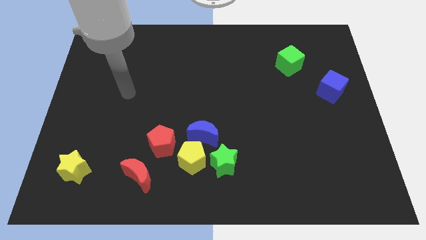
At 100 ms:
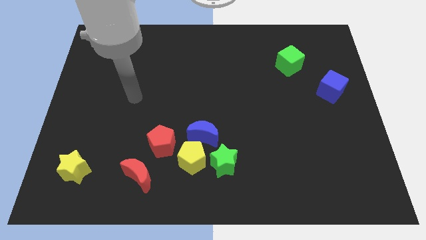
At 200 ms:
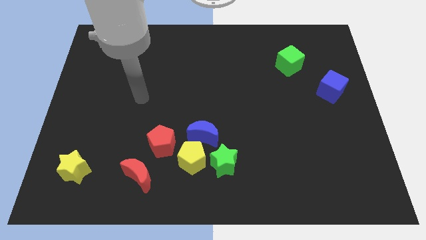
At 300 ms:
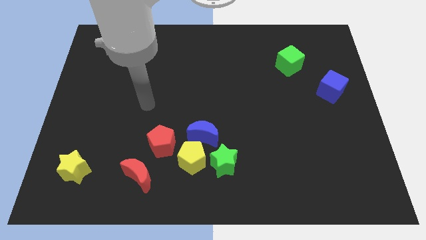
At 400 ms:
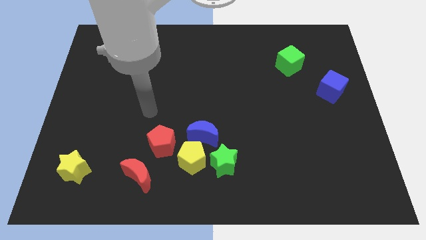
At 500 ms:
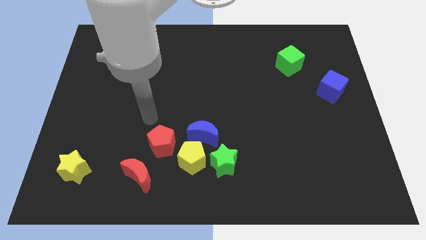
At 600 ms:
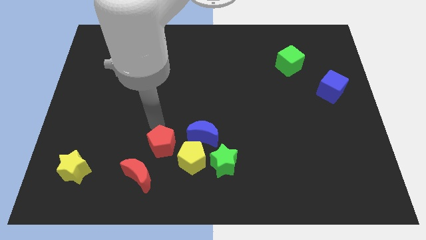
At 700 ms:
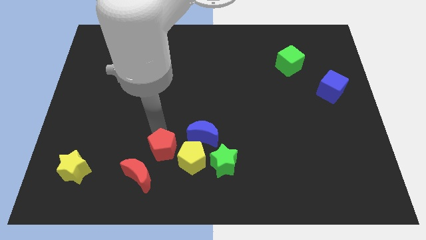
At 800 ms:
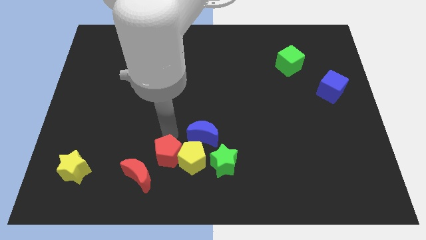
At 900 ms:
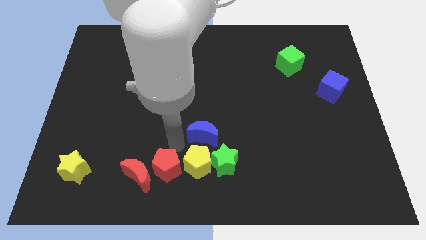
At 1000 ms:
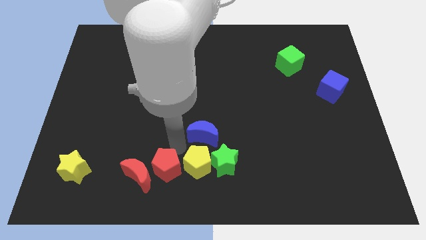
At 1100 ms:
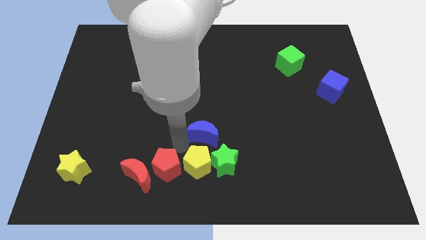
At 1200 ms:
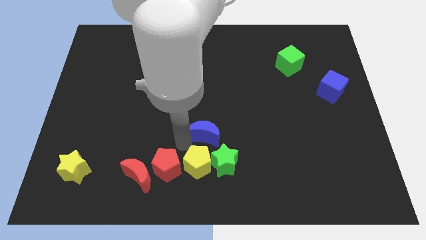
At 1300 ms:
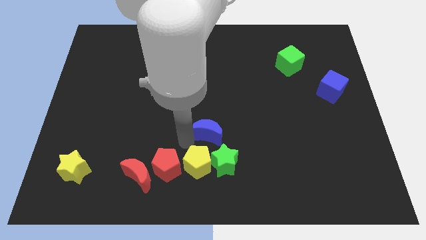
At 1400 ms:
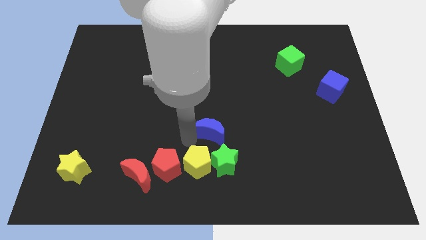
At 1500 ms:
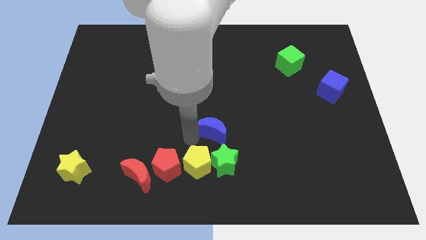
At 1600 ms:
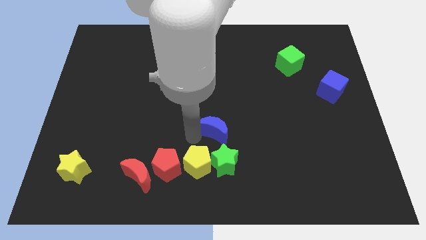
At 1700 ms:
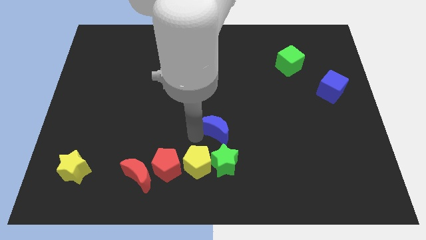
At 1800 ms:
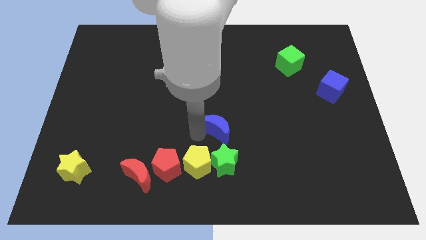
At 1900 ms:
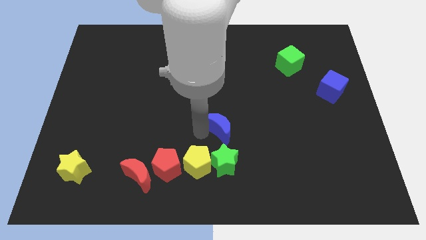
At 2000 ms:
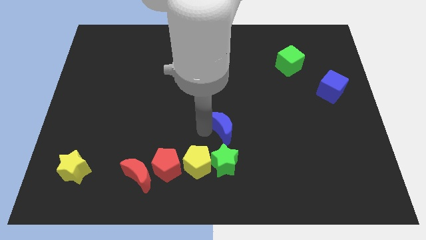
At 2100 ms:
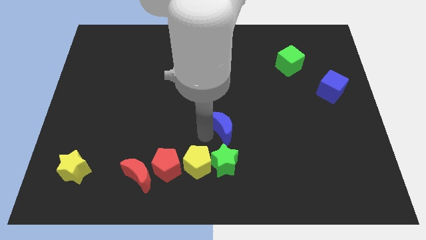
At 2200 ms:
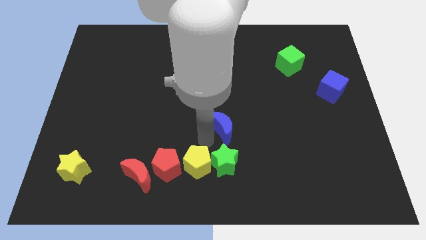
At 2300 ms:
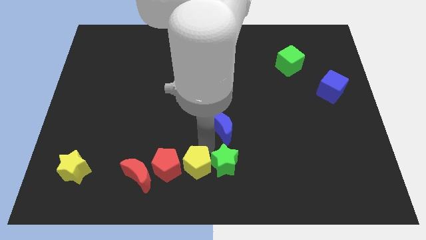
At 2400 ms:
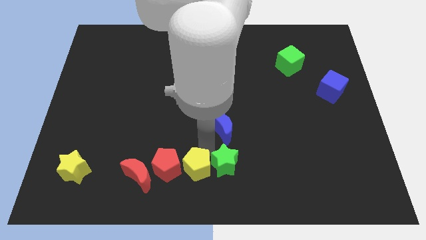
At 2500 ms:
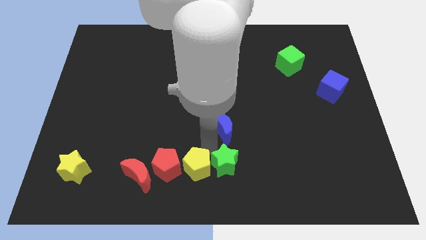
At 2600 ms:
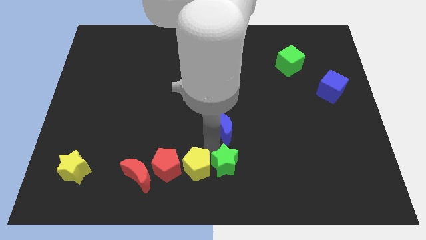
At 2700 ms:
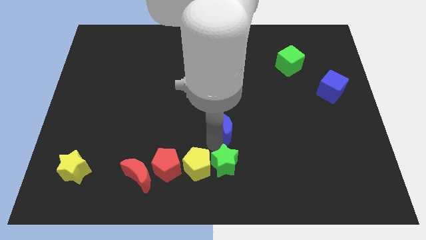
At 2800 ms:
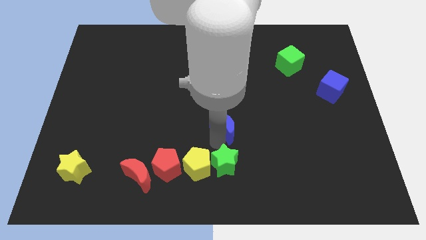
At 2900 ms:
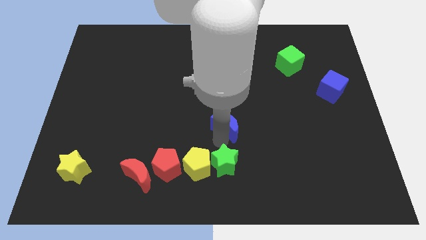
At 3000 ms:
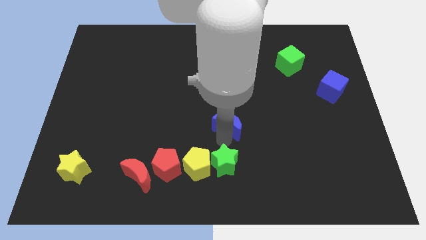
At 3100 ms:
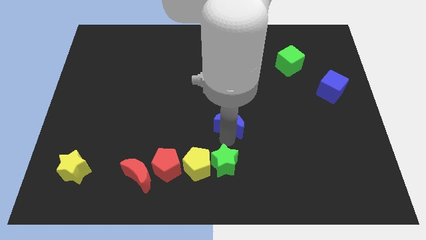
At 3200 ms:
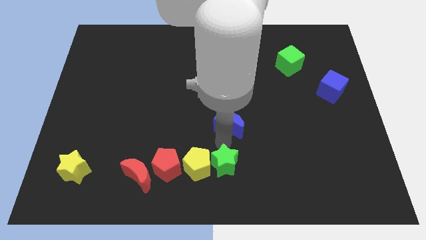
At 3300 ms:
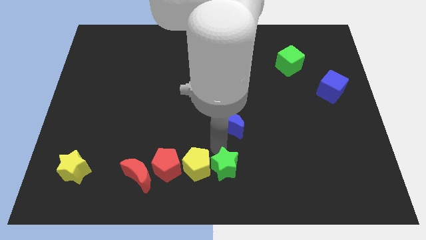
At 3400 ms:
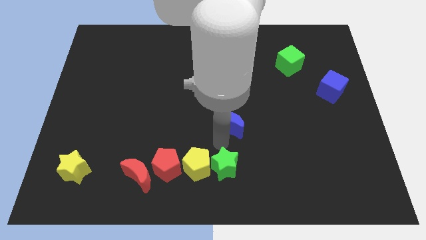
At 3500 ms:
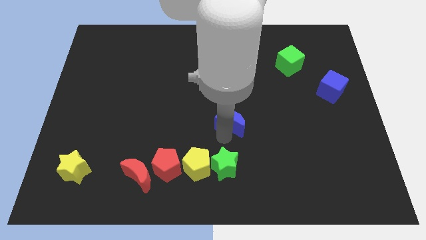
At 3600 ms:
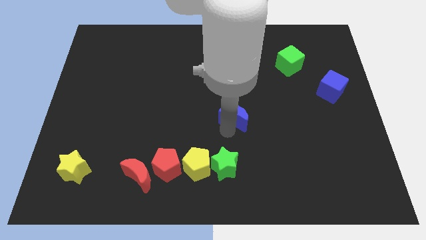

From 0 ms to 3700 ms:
push the blue moon up and right diagonally a little bit

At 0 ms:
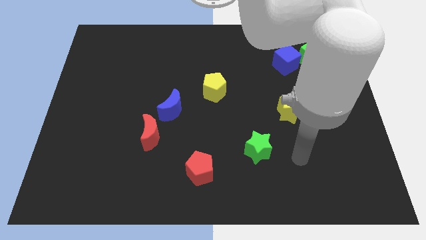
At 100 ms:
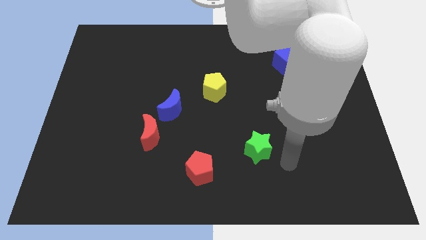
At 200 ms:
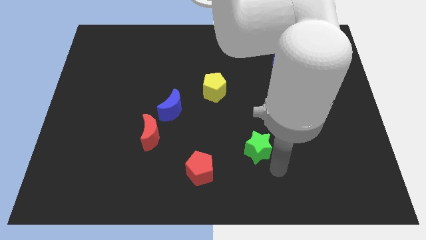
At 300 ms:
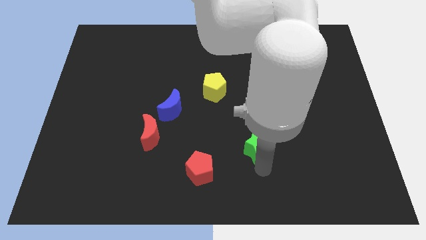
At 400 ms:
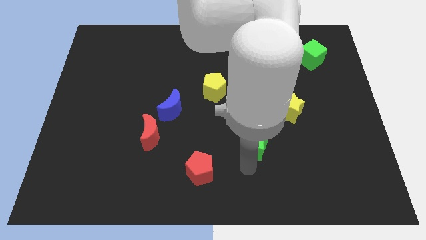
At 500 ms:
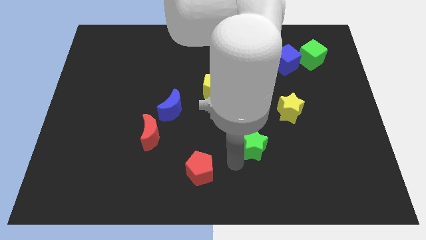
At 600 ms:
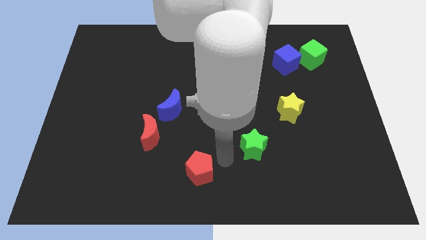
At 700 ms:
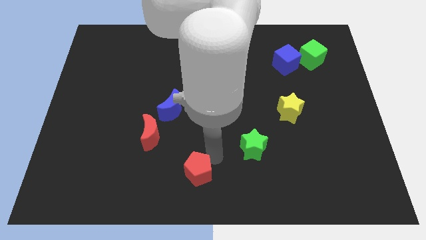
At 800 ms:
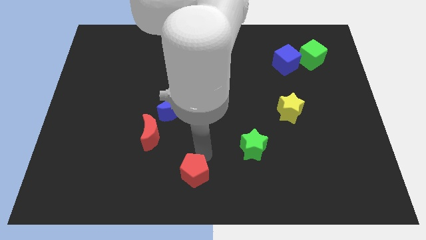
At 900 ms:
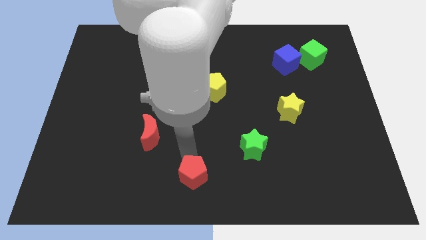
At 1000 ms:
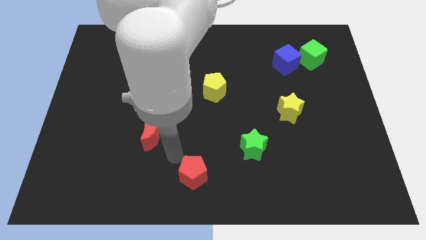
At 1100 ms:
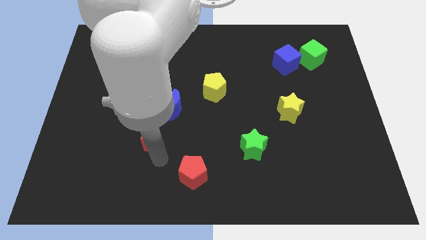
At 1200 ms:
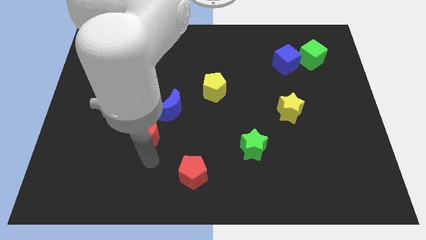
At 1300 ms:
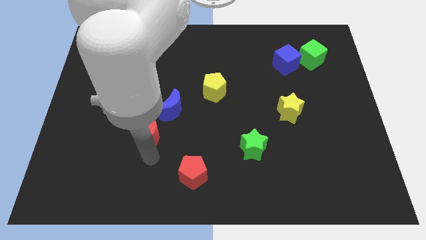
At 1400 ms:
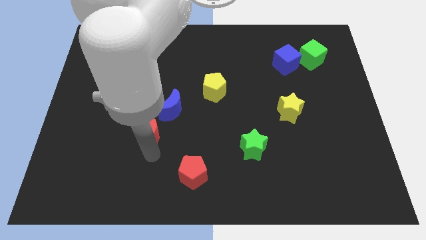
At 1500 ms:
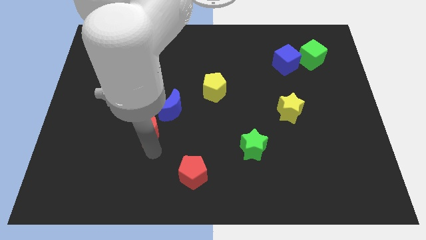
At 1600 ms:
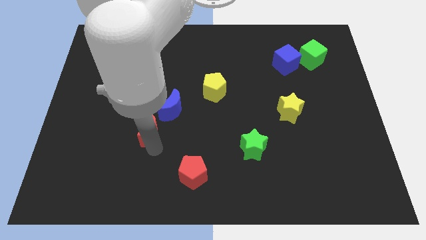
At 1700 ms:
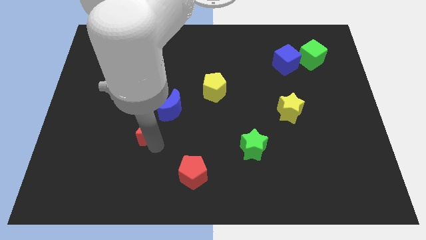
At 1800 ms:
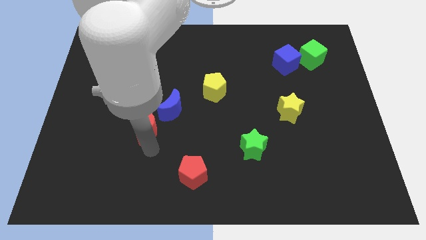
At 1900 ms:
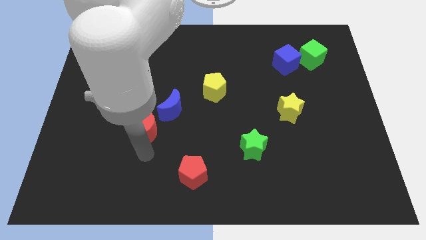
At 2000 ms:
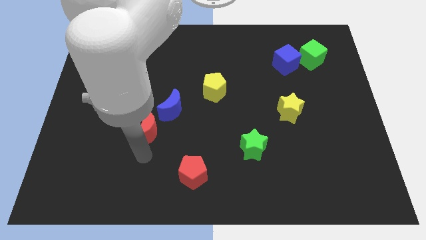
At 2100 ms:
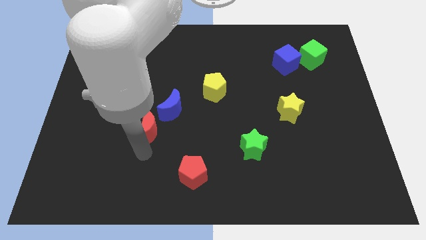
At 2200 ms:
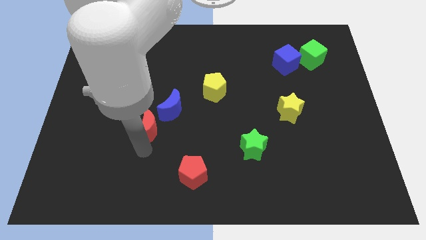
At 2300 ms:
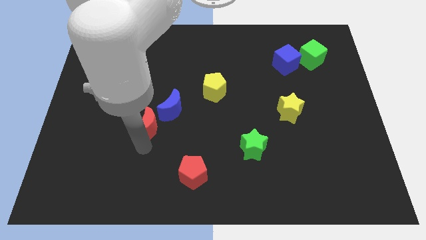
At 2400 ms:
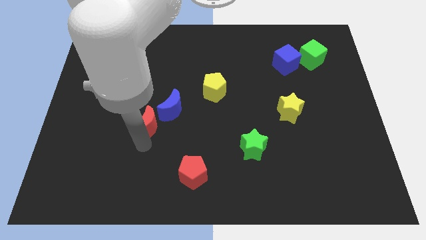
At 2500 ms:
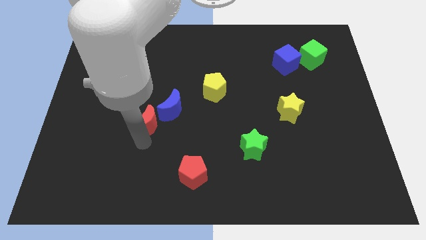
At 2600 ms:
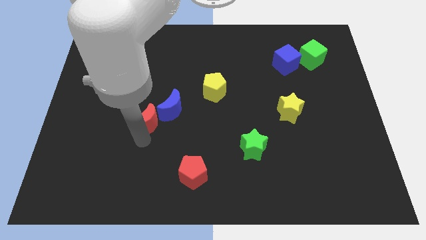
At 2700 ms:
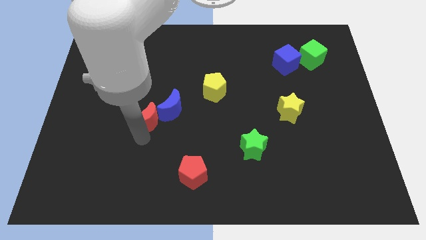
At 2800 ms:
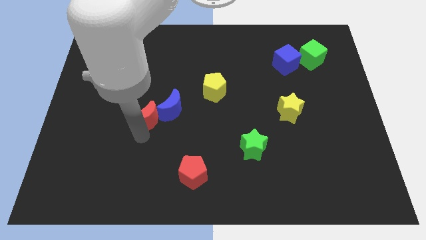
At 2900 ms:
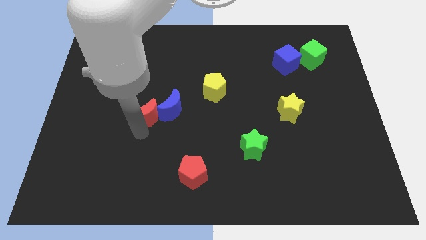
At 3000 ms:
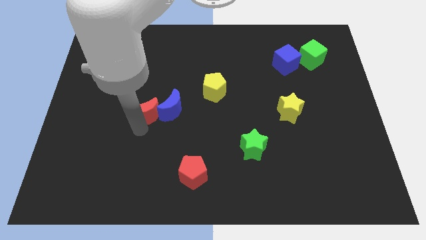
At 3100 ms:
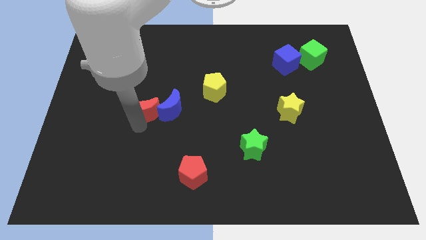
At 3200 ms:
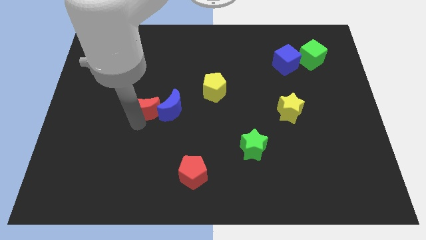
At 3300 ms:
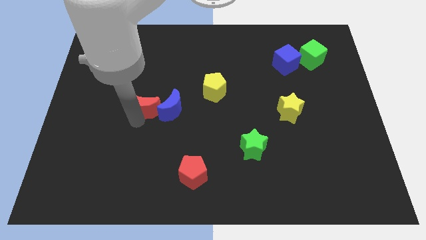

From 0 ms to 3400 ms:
move the red moon upwards a little

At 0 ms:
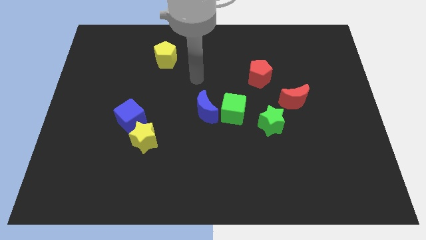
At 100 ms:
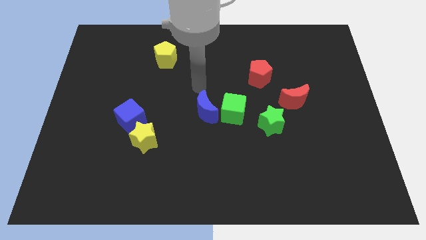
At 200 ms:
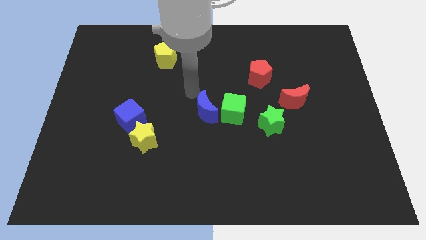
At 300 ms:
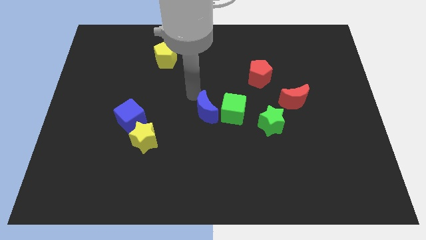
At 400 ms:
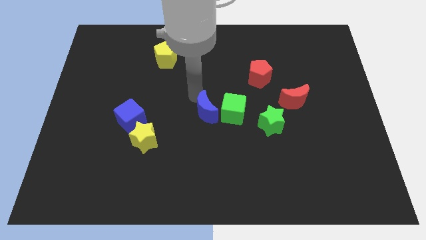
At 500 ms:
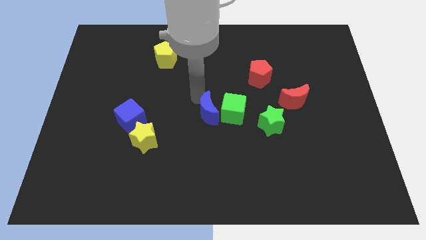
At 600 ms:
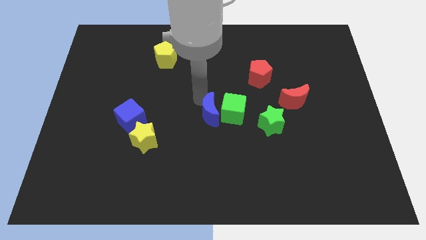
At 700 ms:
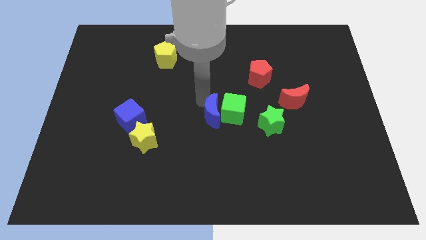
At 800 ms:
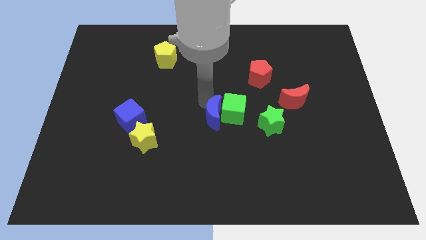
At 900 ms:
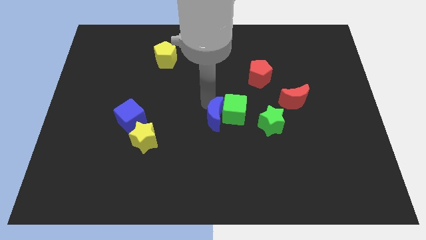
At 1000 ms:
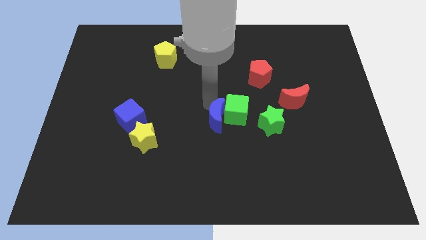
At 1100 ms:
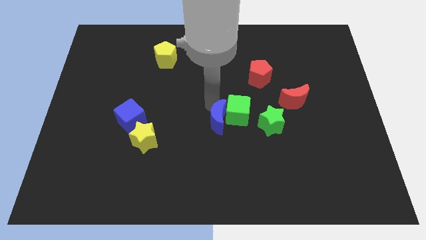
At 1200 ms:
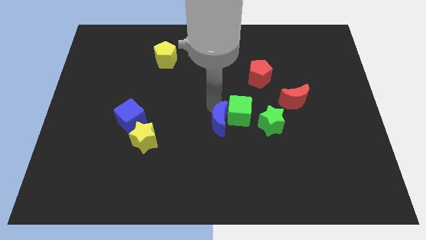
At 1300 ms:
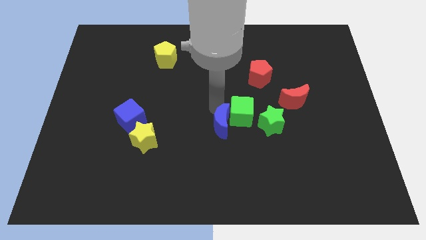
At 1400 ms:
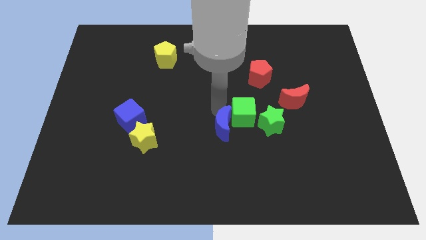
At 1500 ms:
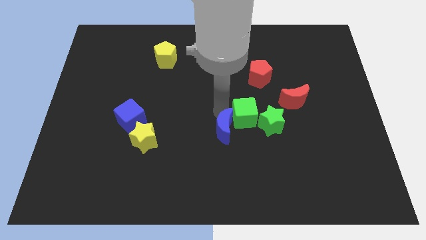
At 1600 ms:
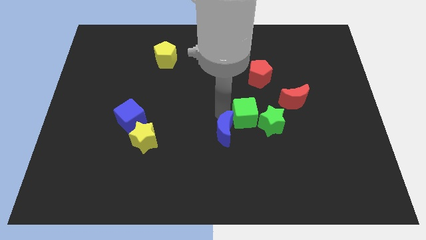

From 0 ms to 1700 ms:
move the blue moon a little downwards and then to the right

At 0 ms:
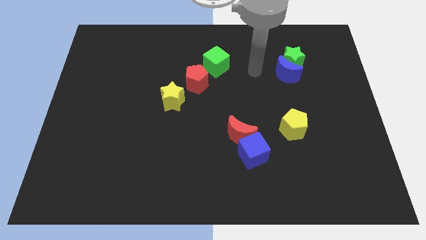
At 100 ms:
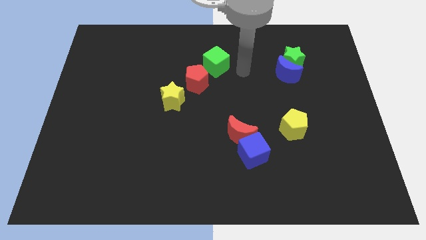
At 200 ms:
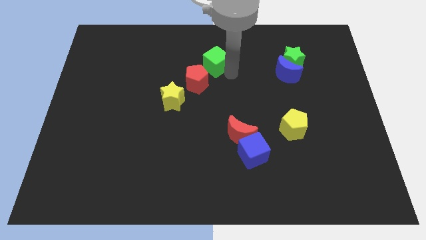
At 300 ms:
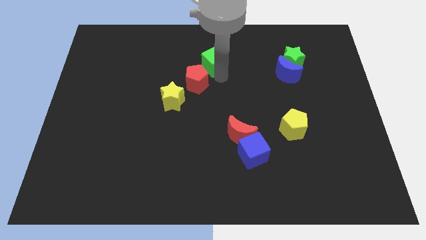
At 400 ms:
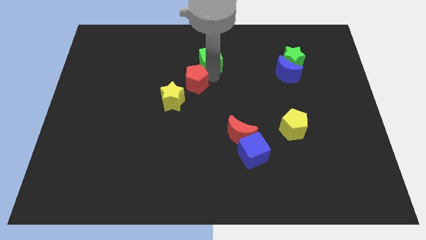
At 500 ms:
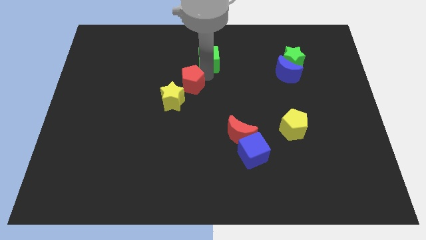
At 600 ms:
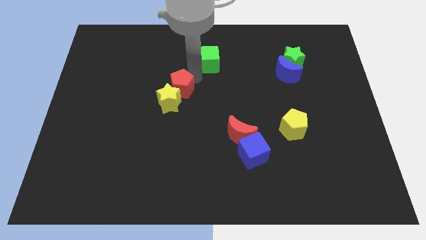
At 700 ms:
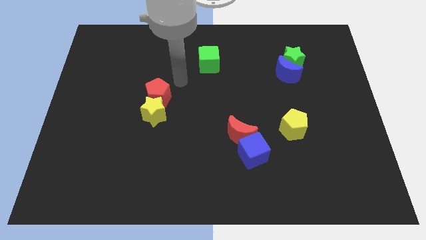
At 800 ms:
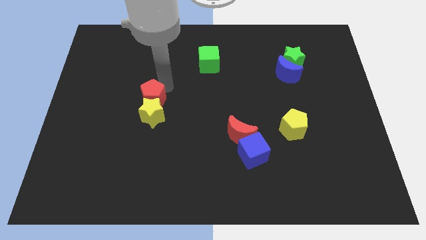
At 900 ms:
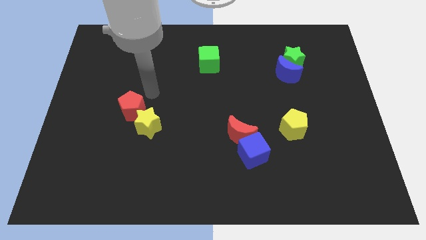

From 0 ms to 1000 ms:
slightly move the yellow star down
